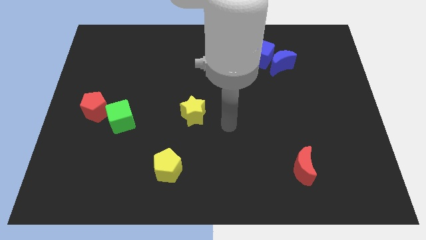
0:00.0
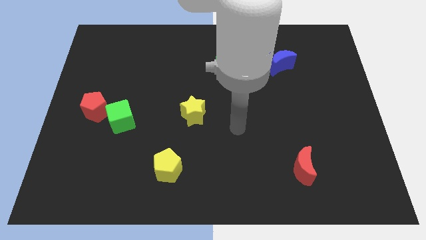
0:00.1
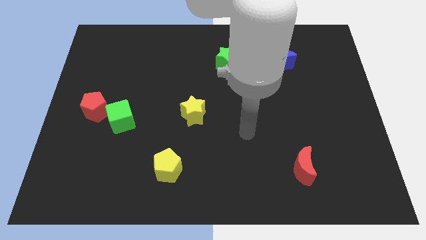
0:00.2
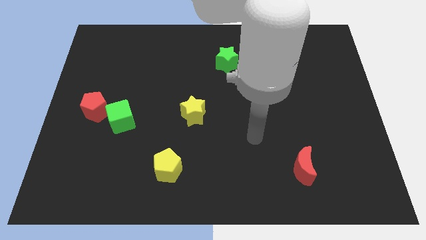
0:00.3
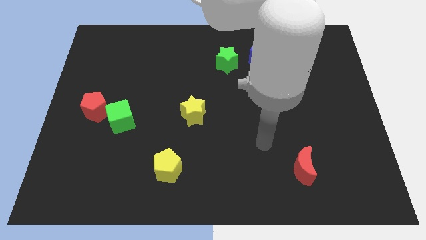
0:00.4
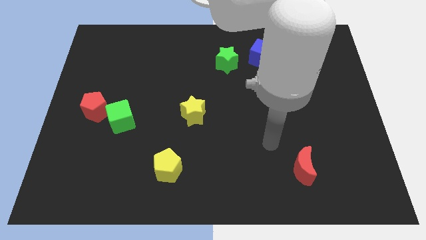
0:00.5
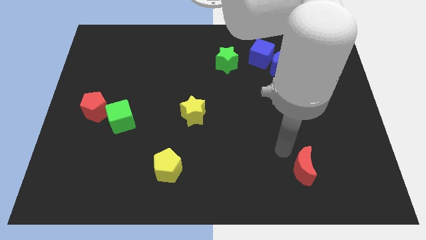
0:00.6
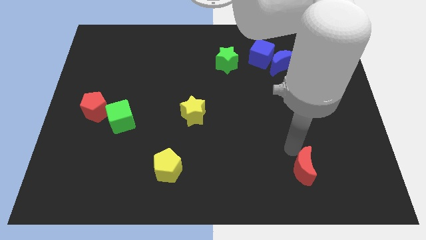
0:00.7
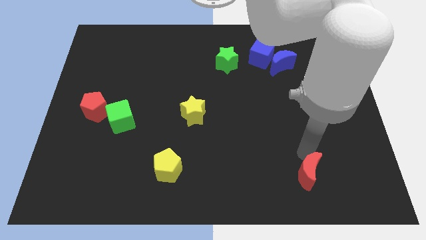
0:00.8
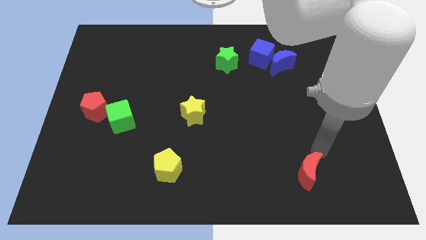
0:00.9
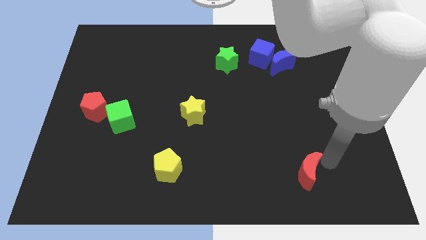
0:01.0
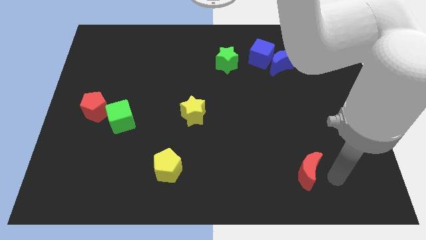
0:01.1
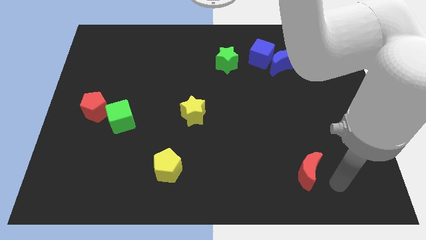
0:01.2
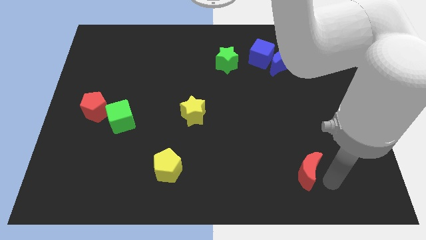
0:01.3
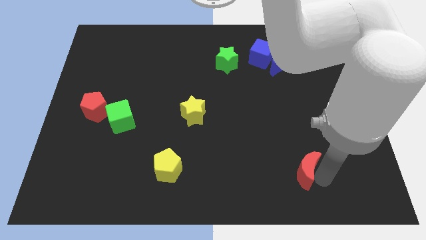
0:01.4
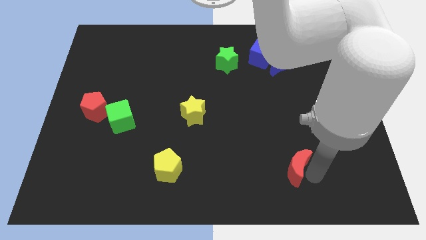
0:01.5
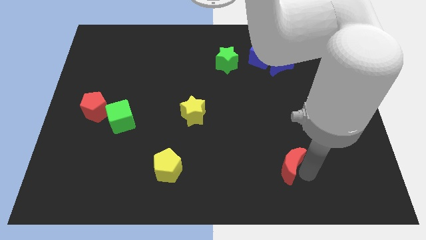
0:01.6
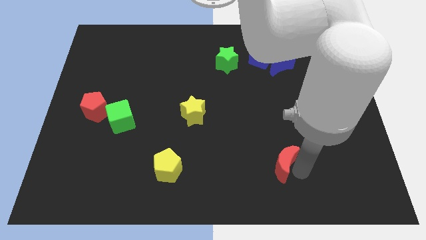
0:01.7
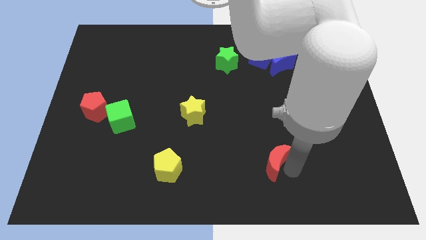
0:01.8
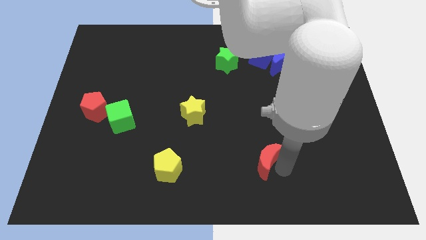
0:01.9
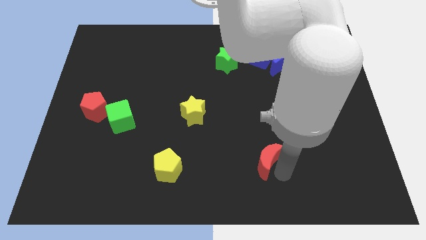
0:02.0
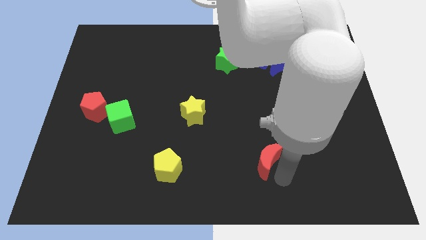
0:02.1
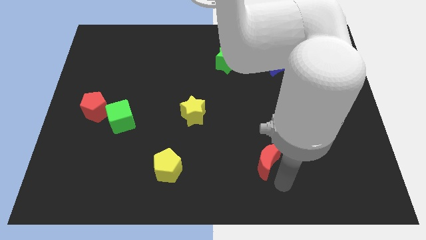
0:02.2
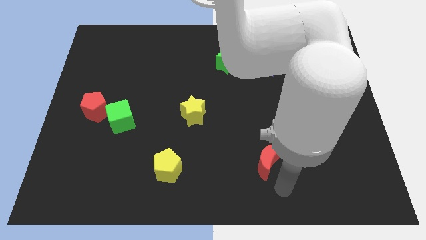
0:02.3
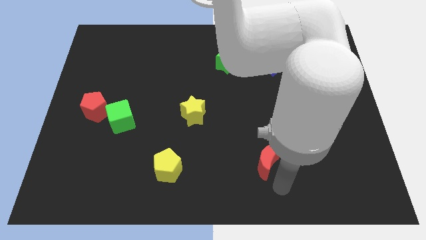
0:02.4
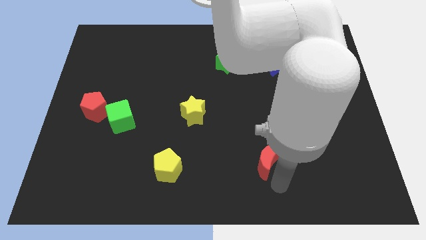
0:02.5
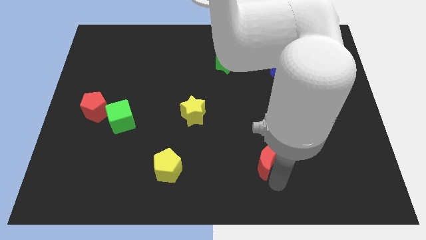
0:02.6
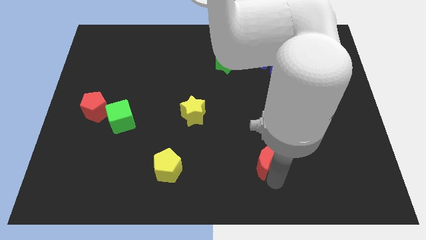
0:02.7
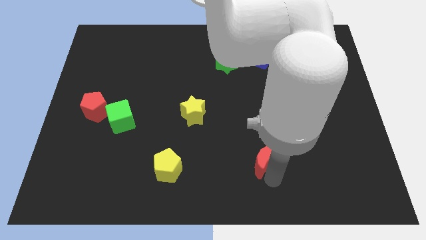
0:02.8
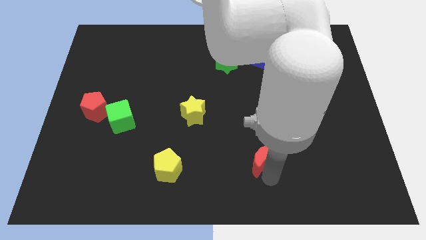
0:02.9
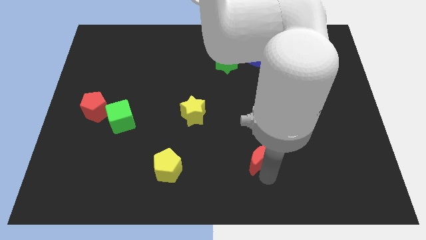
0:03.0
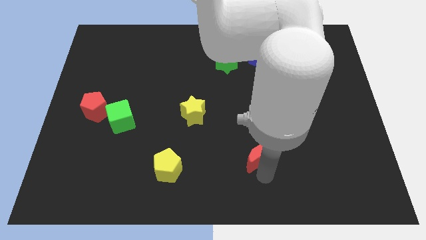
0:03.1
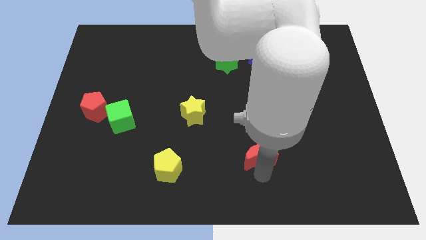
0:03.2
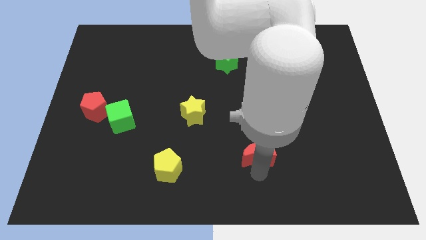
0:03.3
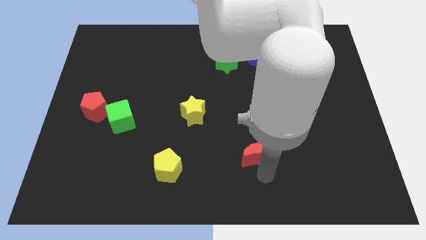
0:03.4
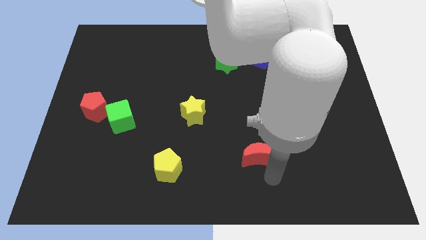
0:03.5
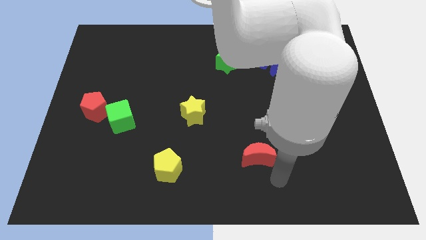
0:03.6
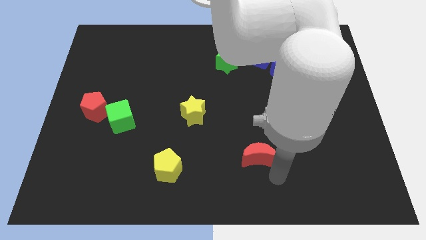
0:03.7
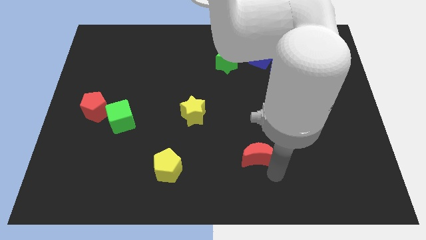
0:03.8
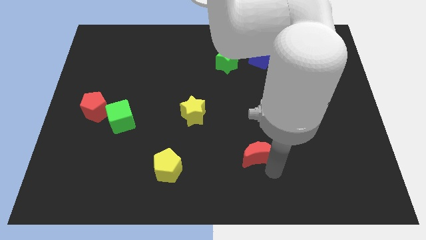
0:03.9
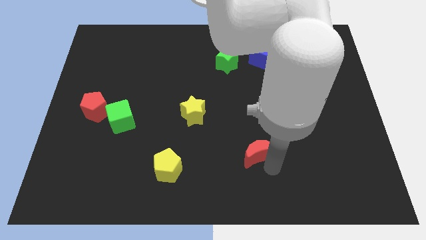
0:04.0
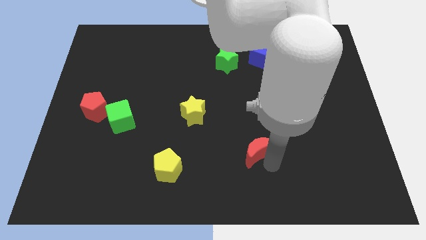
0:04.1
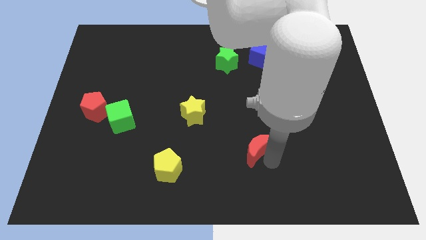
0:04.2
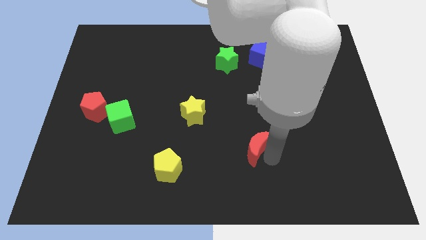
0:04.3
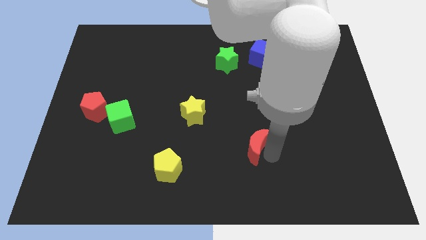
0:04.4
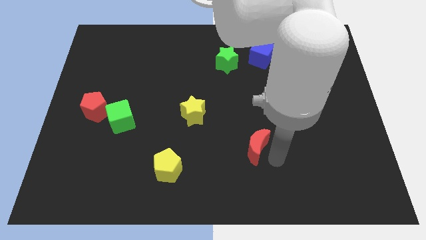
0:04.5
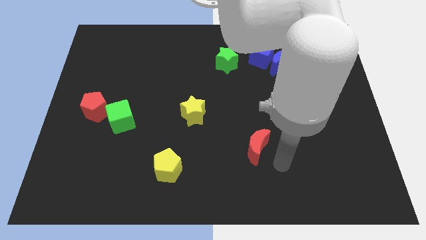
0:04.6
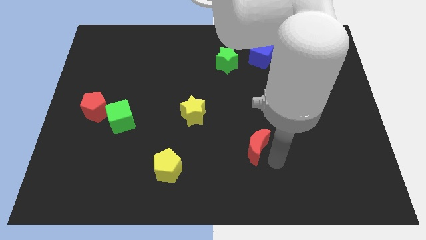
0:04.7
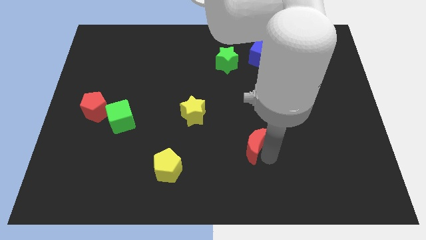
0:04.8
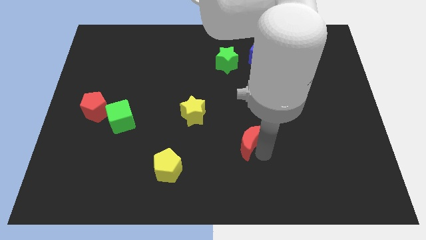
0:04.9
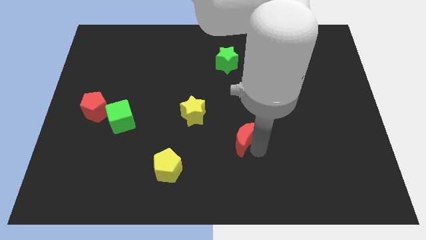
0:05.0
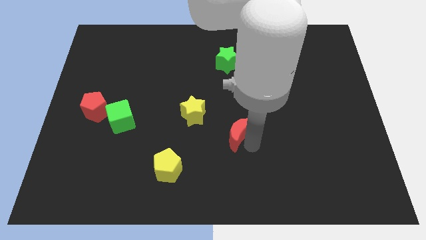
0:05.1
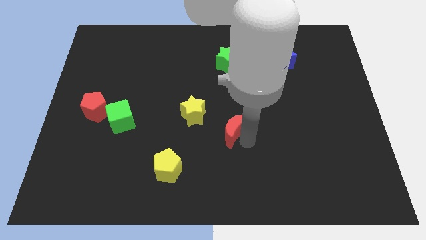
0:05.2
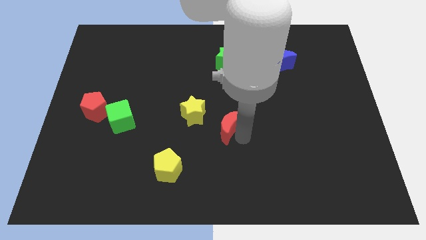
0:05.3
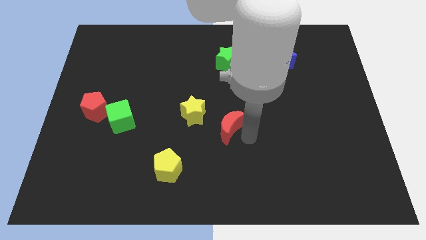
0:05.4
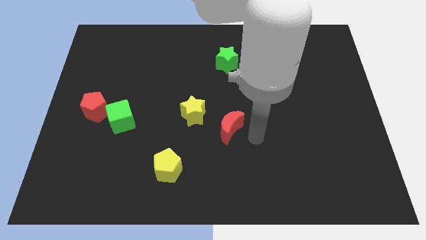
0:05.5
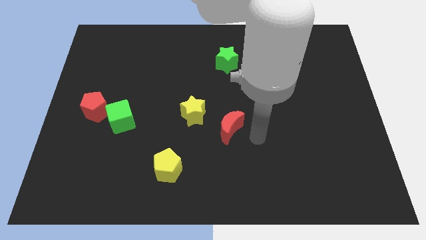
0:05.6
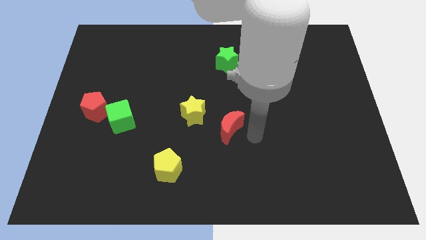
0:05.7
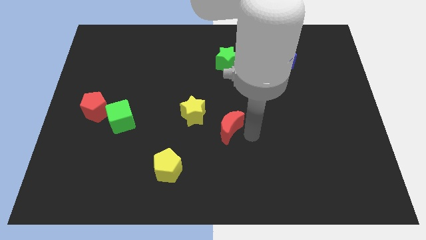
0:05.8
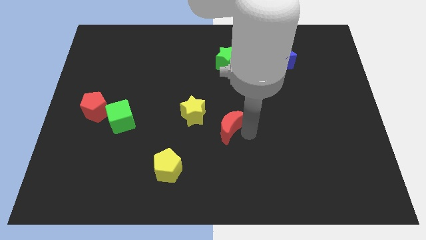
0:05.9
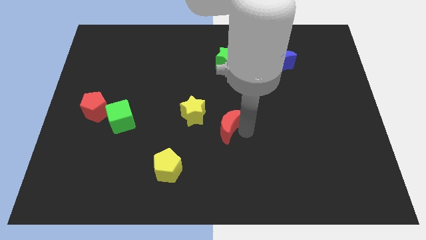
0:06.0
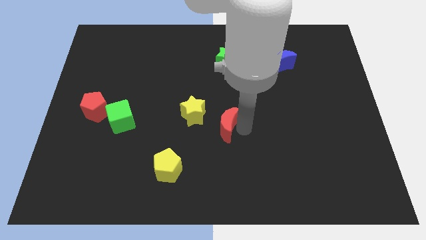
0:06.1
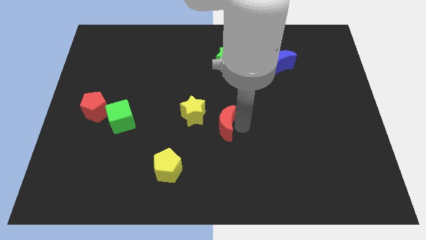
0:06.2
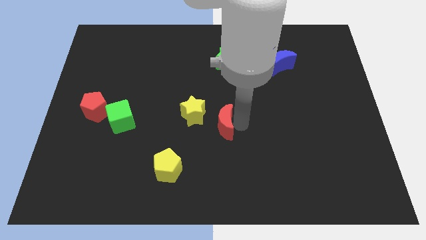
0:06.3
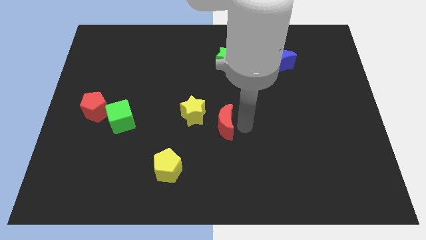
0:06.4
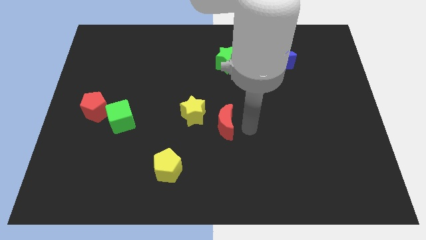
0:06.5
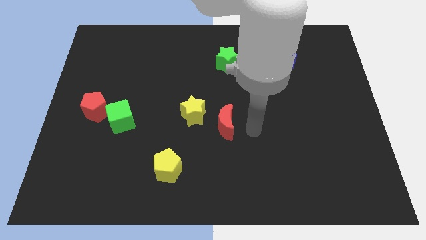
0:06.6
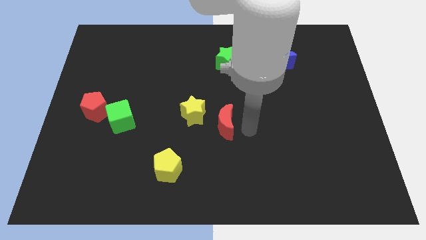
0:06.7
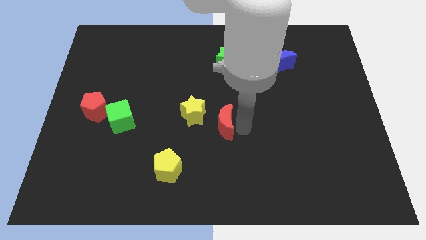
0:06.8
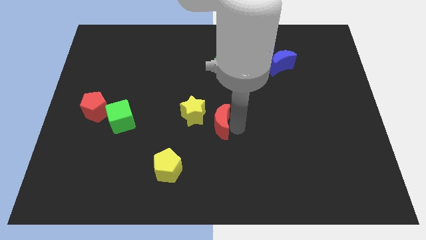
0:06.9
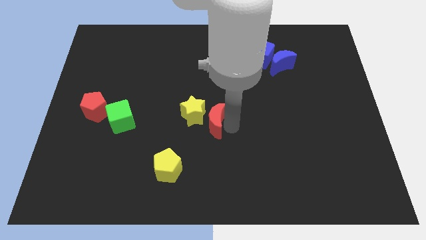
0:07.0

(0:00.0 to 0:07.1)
put the red moon towards the yellow star
